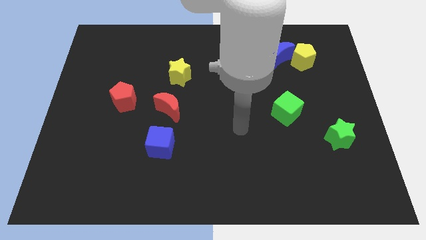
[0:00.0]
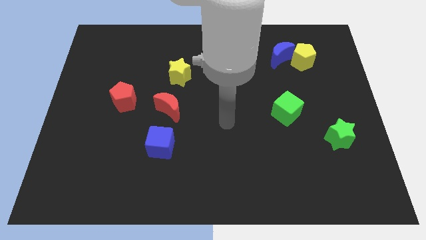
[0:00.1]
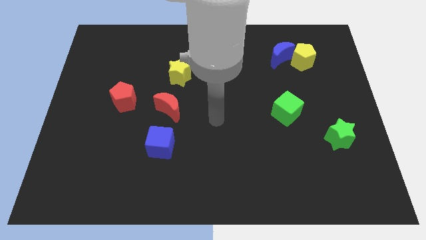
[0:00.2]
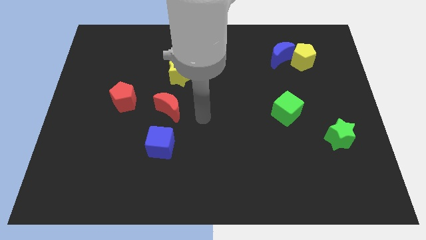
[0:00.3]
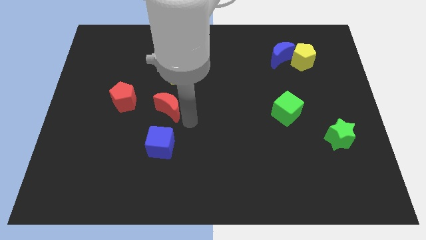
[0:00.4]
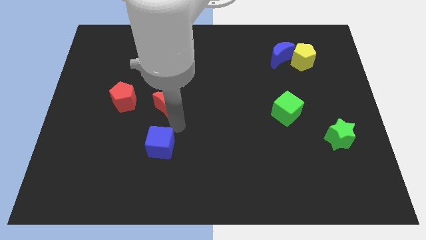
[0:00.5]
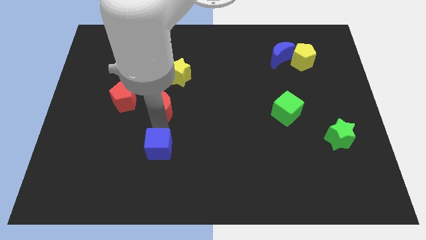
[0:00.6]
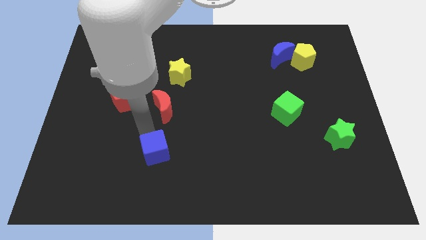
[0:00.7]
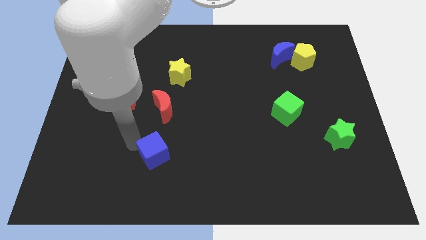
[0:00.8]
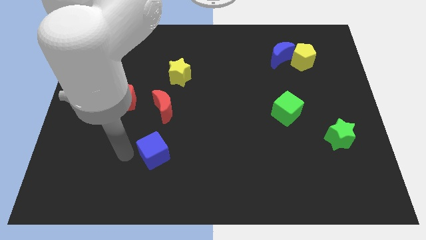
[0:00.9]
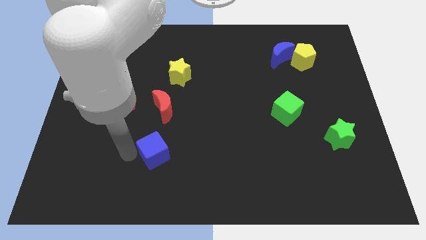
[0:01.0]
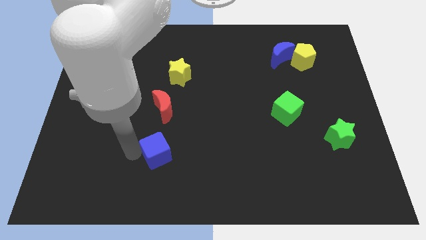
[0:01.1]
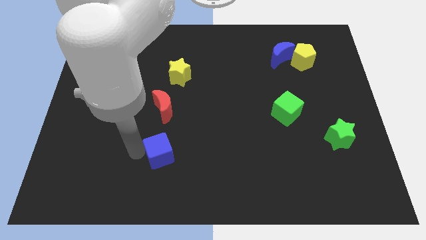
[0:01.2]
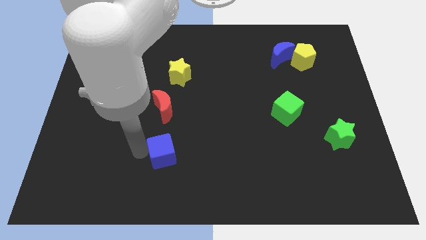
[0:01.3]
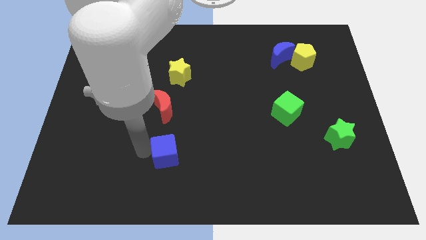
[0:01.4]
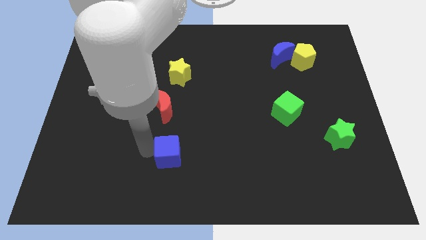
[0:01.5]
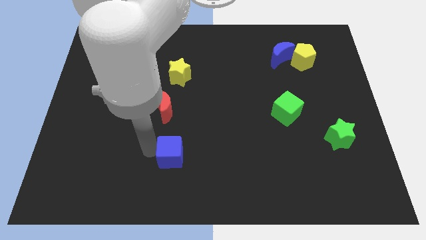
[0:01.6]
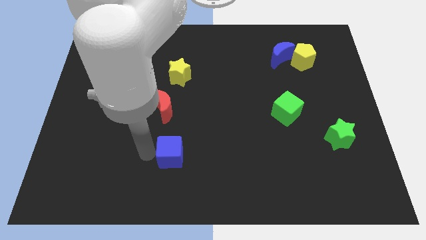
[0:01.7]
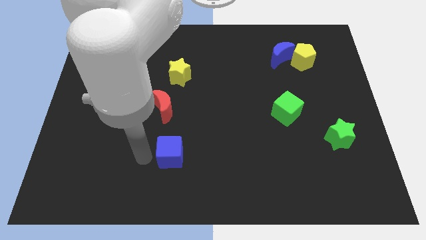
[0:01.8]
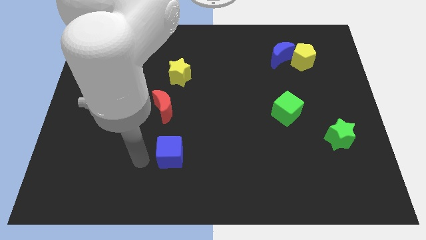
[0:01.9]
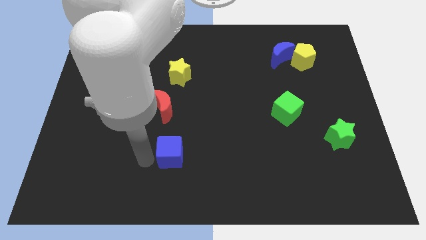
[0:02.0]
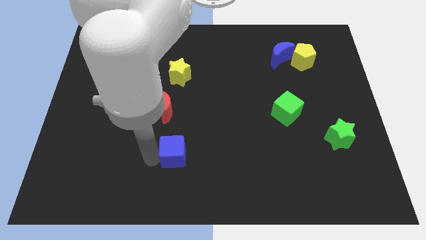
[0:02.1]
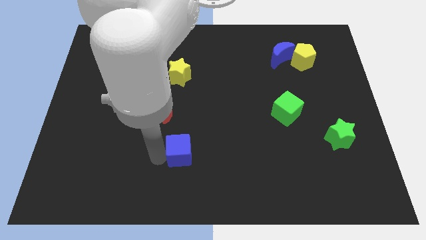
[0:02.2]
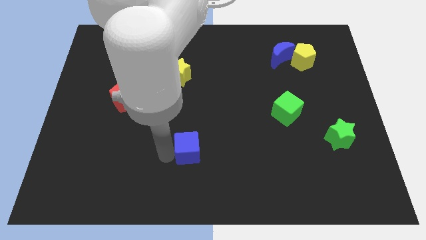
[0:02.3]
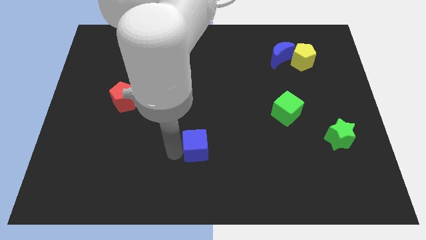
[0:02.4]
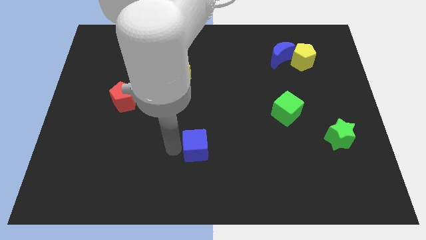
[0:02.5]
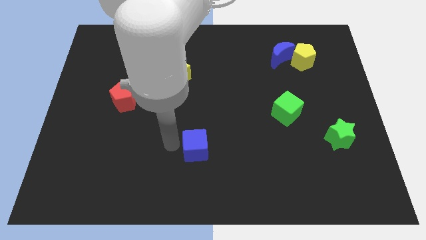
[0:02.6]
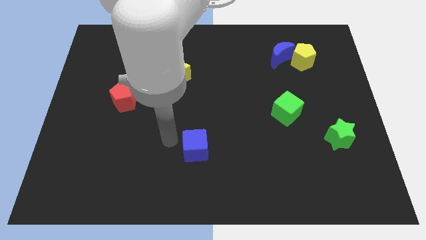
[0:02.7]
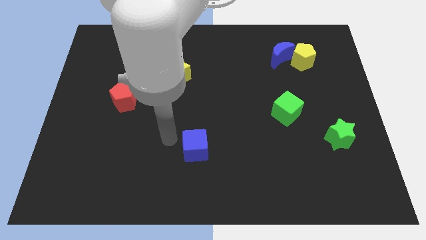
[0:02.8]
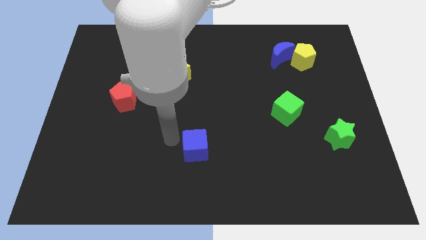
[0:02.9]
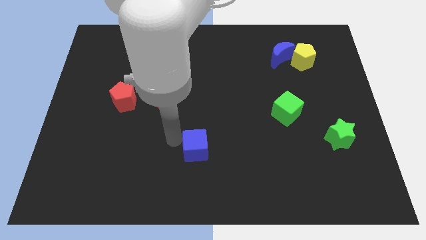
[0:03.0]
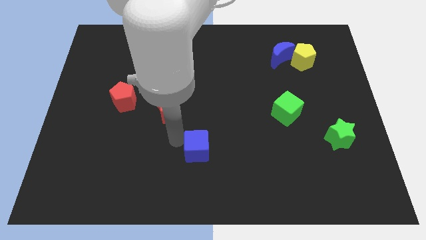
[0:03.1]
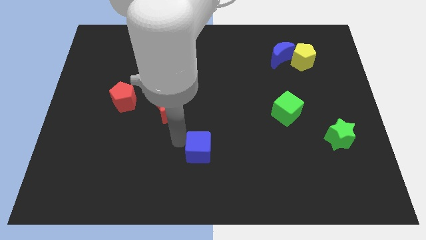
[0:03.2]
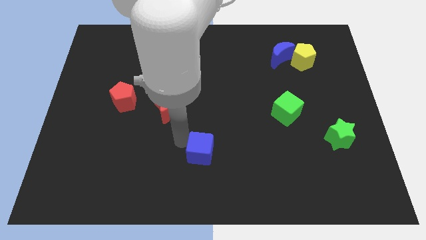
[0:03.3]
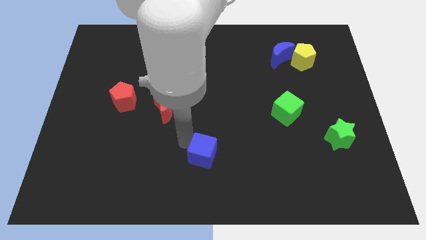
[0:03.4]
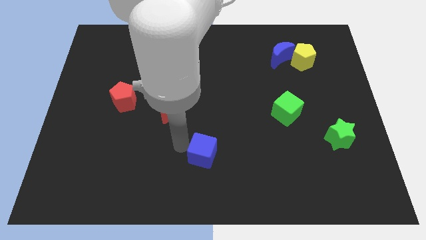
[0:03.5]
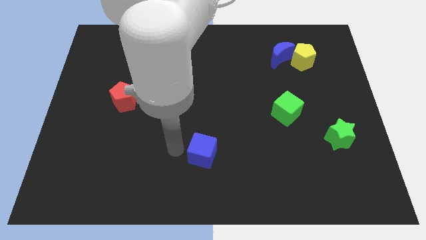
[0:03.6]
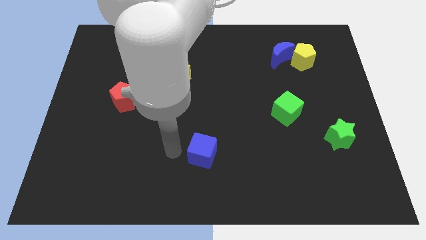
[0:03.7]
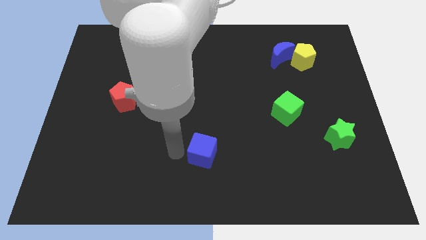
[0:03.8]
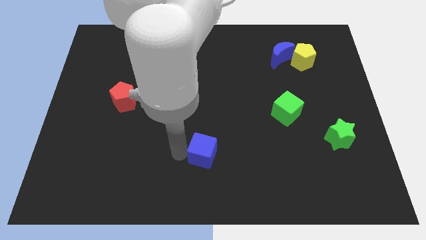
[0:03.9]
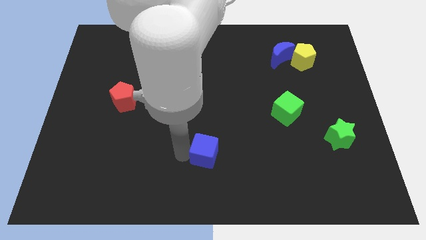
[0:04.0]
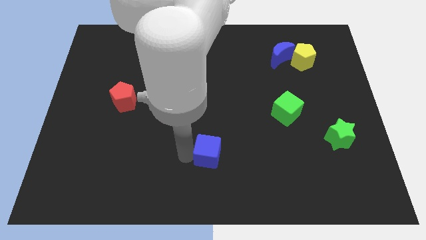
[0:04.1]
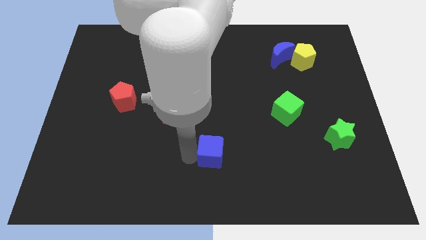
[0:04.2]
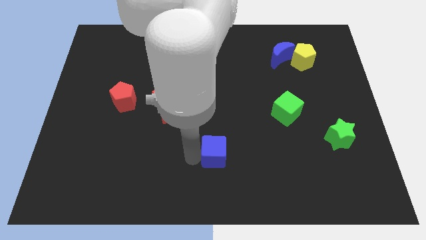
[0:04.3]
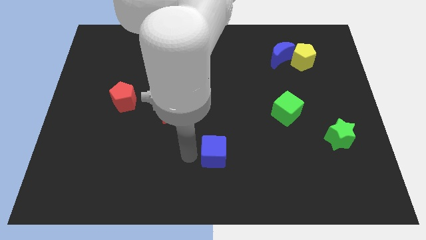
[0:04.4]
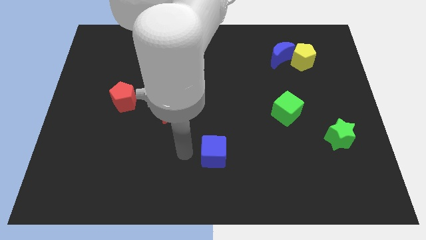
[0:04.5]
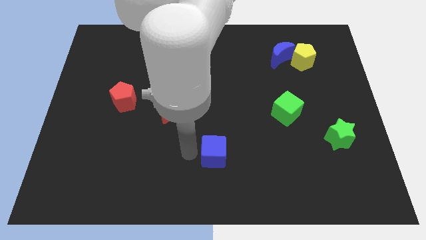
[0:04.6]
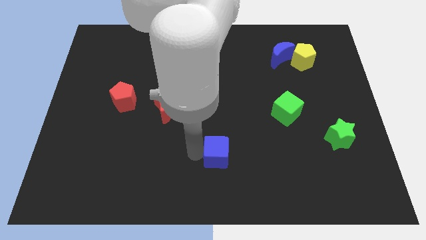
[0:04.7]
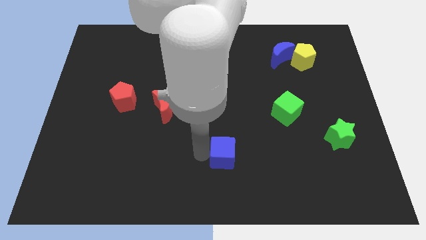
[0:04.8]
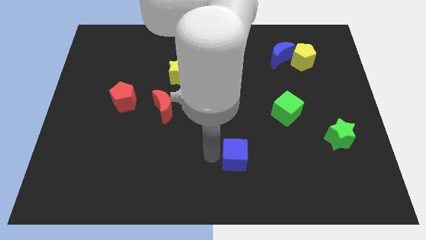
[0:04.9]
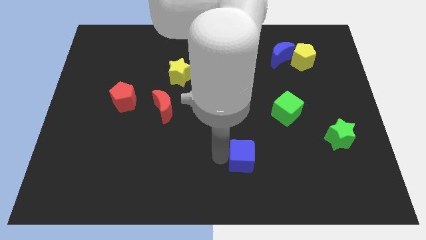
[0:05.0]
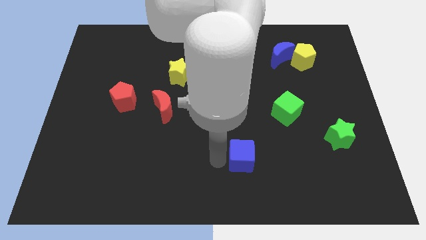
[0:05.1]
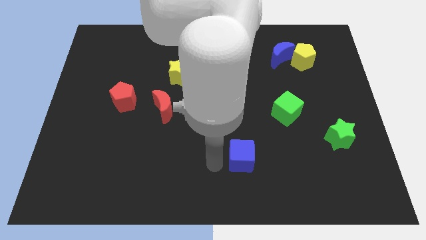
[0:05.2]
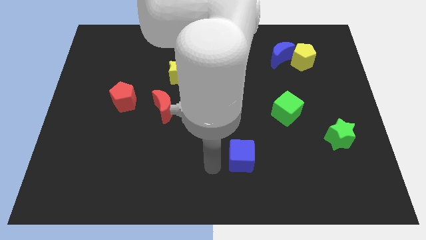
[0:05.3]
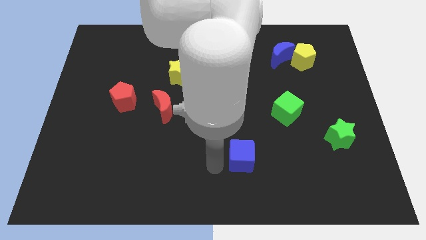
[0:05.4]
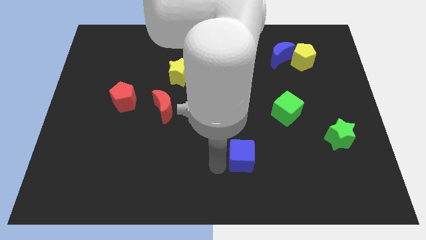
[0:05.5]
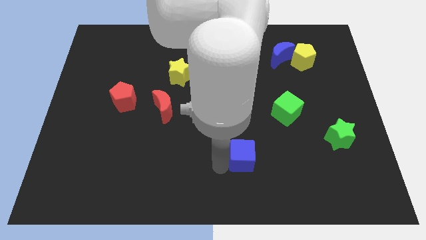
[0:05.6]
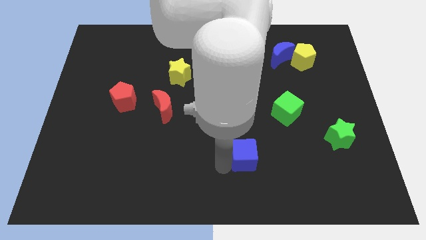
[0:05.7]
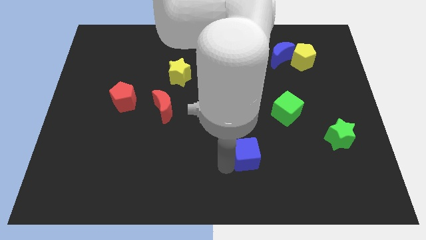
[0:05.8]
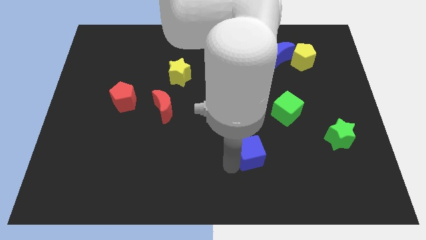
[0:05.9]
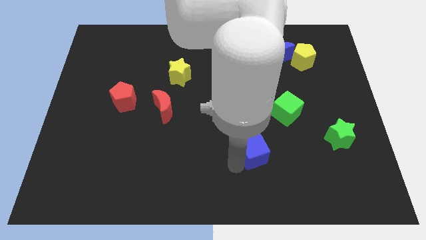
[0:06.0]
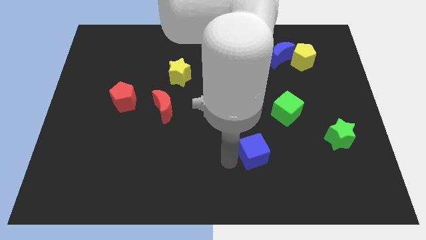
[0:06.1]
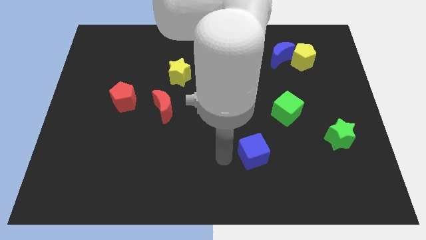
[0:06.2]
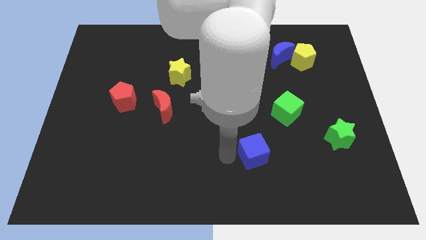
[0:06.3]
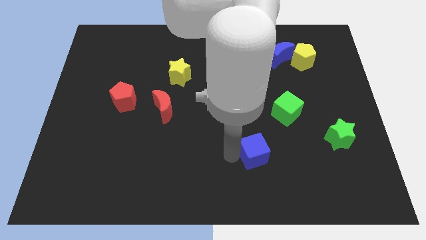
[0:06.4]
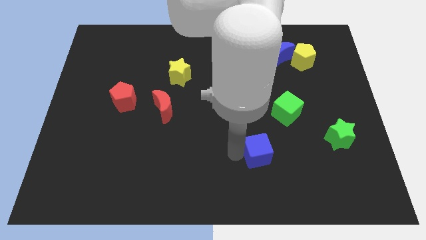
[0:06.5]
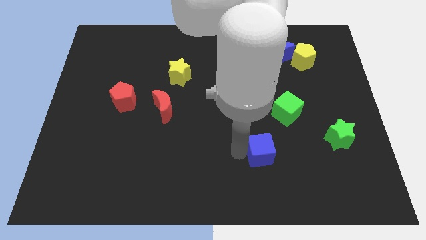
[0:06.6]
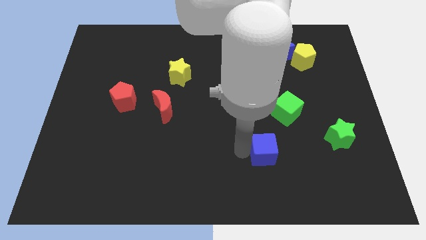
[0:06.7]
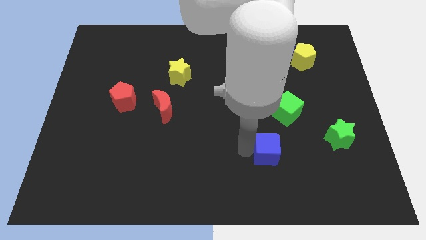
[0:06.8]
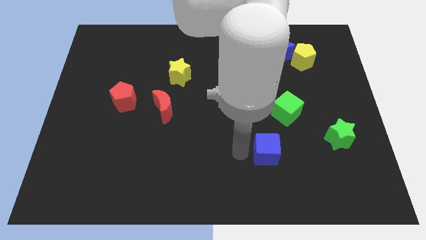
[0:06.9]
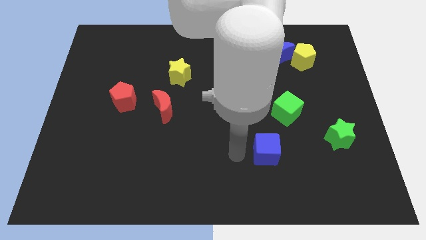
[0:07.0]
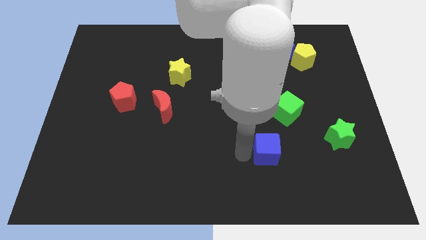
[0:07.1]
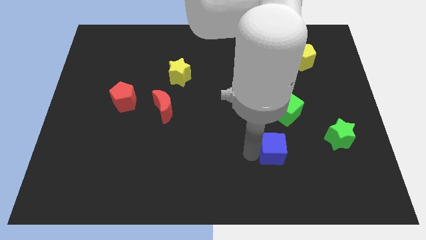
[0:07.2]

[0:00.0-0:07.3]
slide the blue cube to the bottom of the green cube
